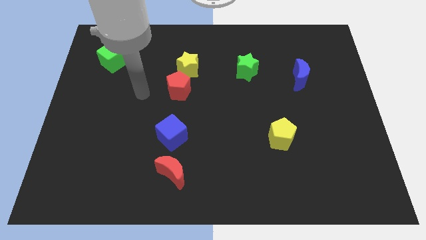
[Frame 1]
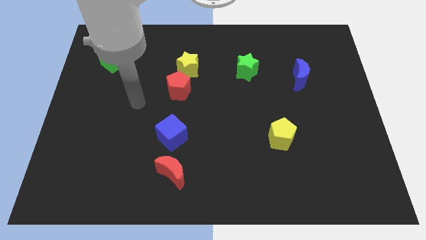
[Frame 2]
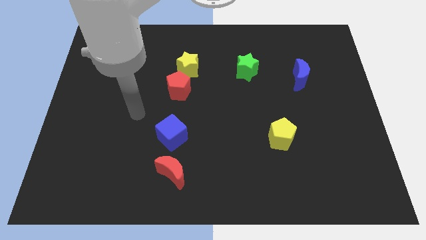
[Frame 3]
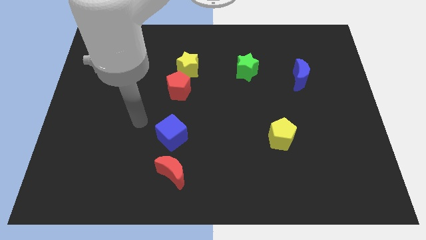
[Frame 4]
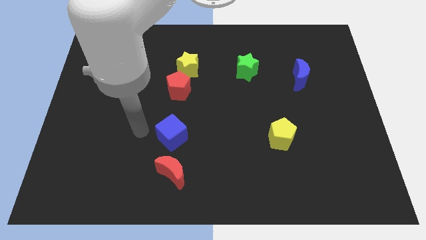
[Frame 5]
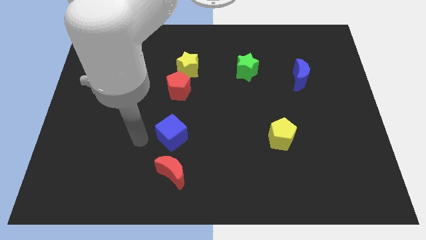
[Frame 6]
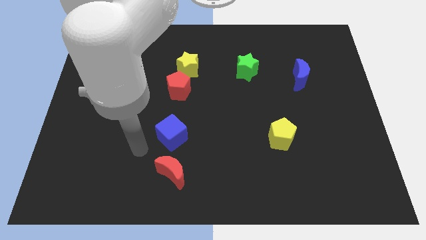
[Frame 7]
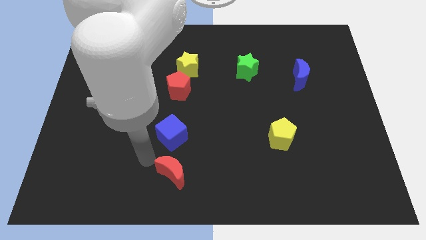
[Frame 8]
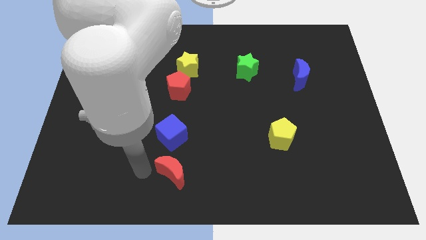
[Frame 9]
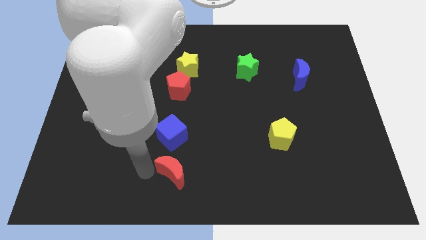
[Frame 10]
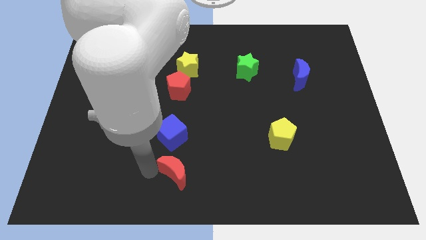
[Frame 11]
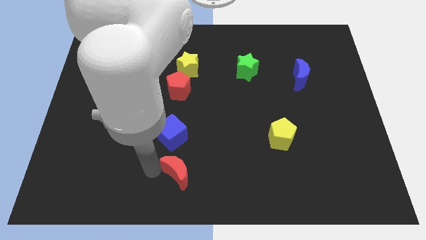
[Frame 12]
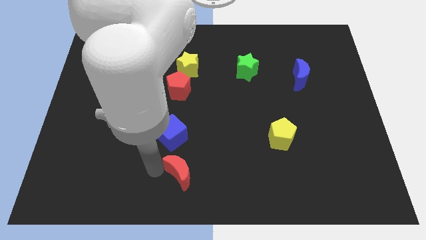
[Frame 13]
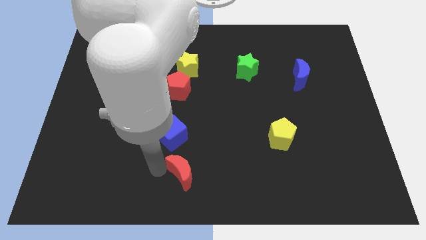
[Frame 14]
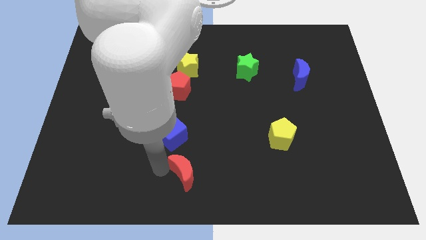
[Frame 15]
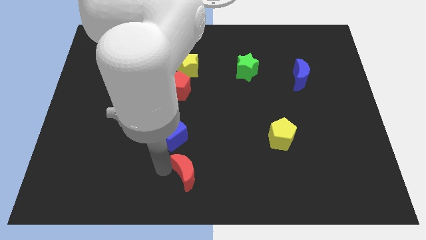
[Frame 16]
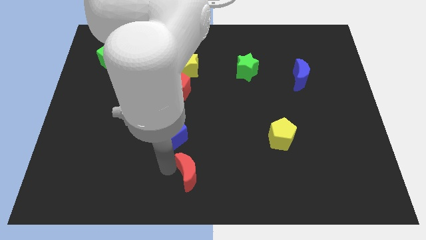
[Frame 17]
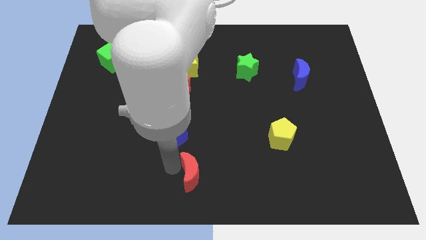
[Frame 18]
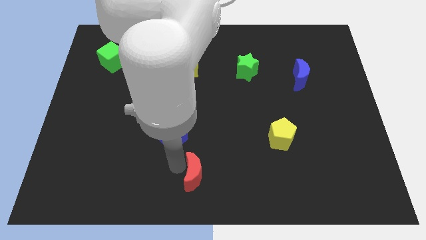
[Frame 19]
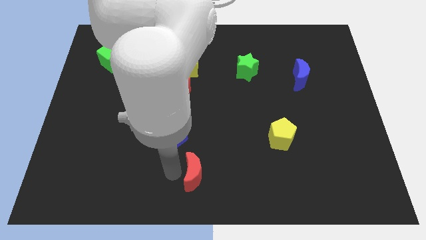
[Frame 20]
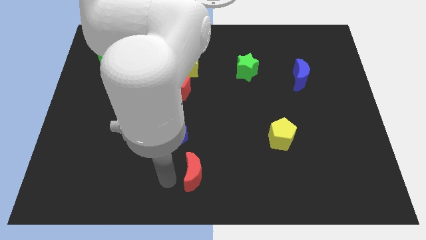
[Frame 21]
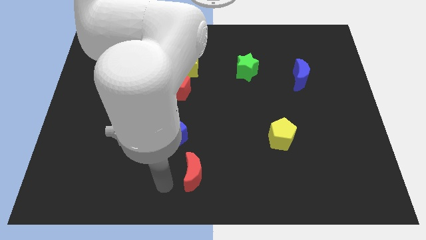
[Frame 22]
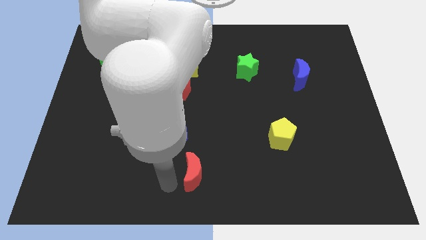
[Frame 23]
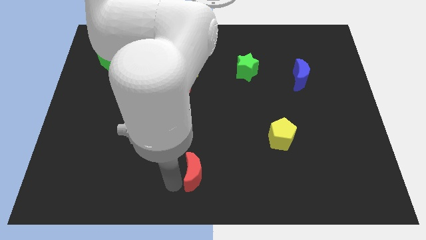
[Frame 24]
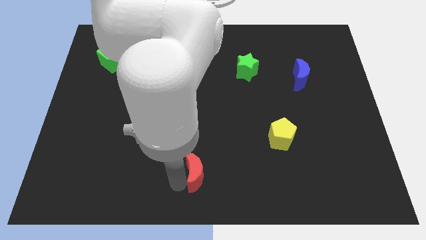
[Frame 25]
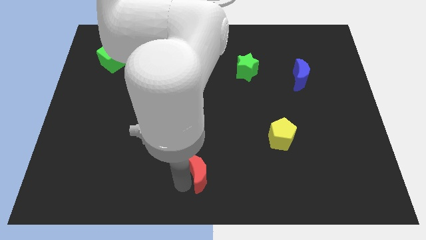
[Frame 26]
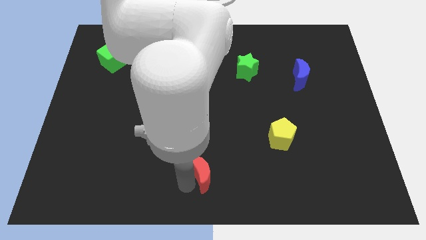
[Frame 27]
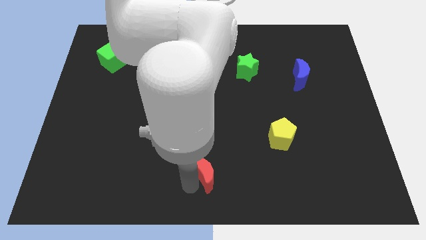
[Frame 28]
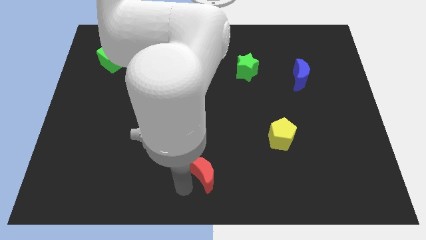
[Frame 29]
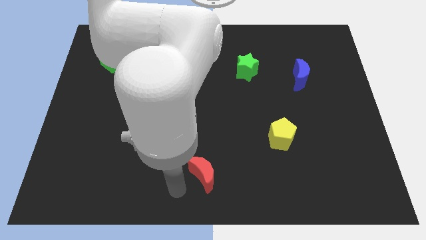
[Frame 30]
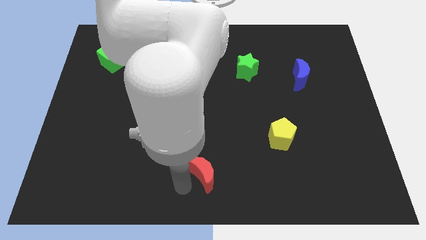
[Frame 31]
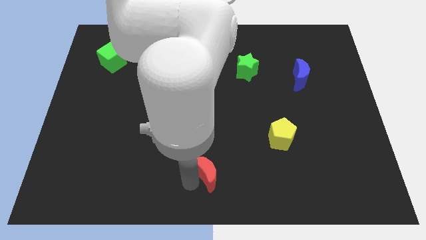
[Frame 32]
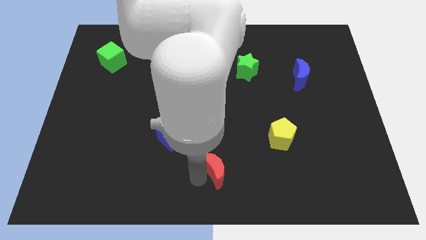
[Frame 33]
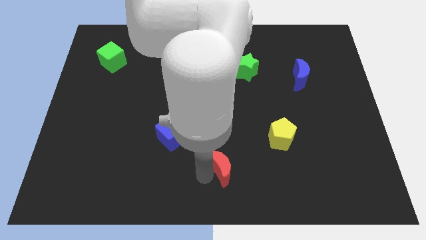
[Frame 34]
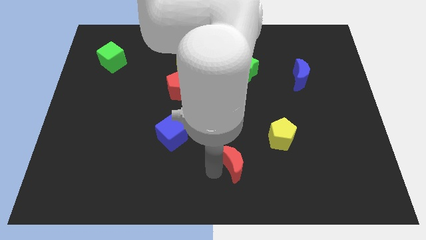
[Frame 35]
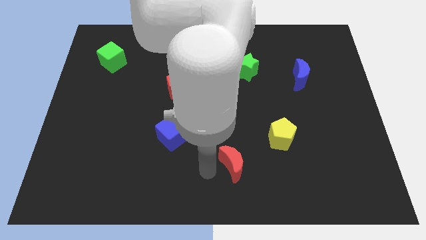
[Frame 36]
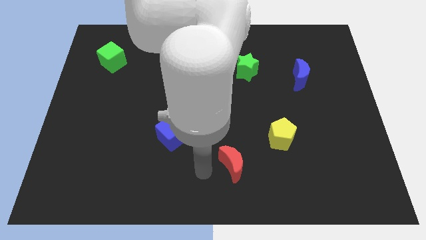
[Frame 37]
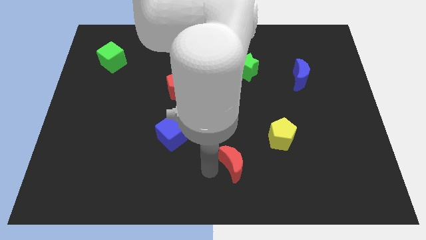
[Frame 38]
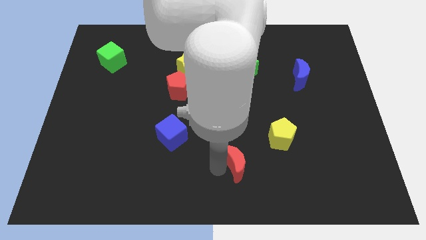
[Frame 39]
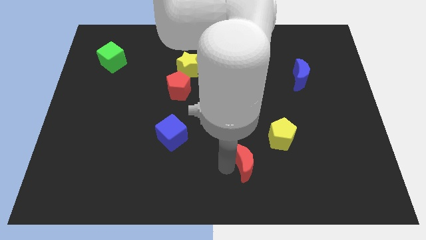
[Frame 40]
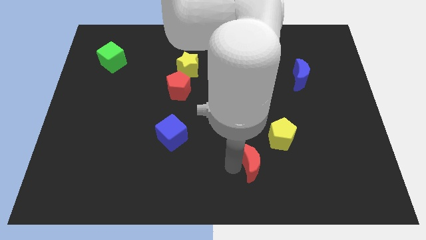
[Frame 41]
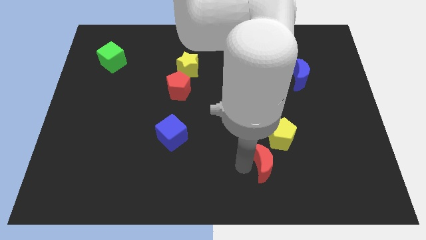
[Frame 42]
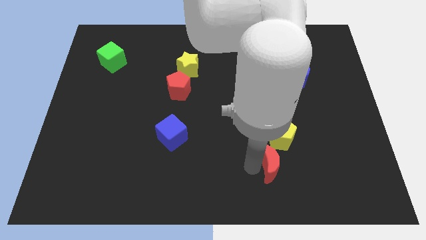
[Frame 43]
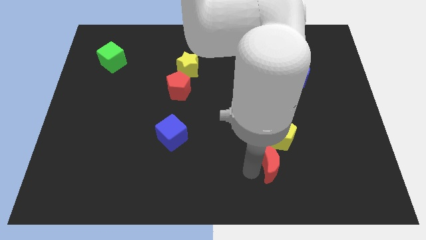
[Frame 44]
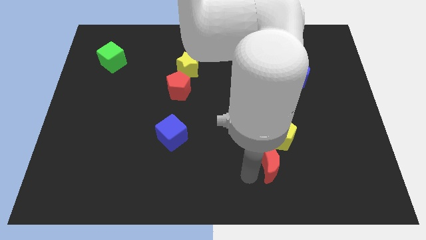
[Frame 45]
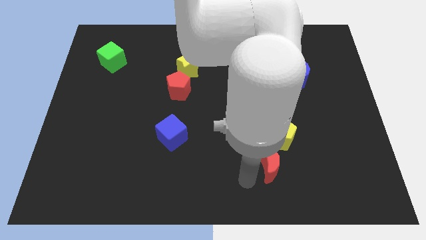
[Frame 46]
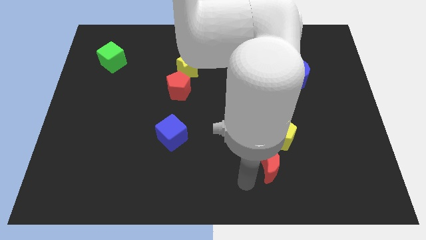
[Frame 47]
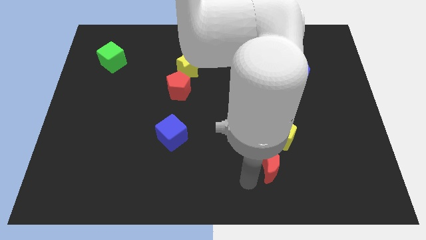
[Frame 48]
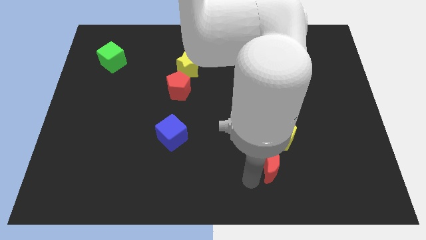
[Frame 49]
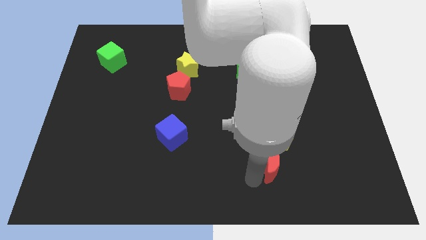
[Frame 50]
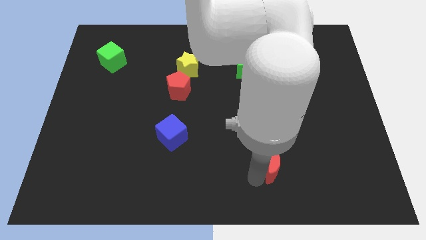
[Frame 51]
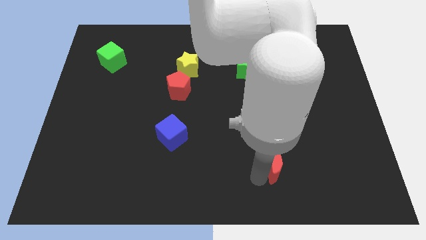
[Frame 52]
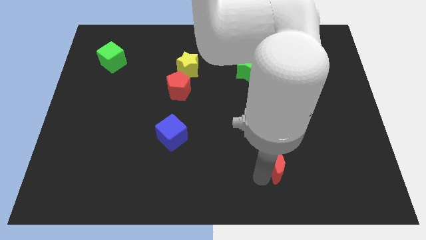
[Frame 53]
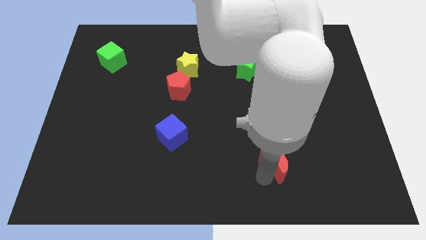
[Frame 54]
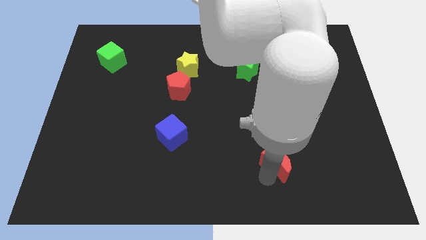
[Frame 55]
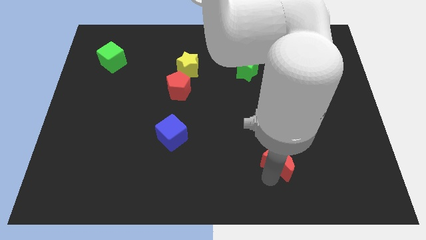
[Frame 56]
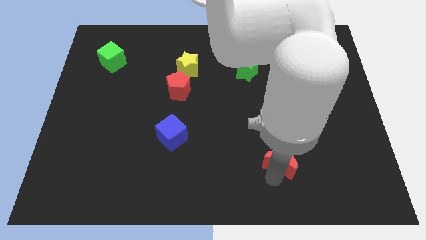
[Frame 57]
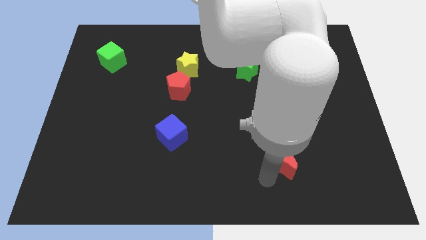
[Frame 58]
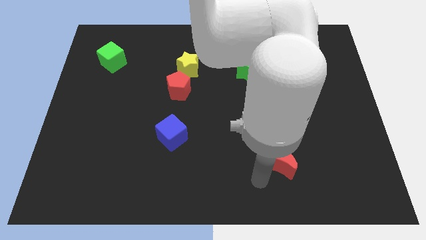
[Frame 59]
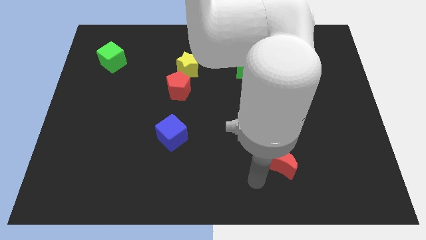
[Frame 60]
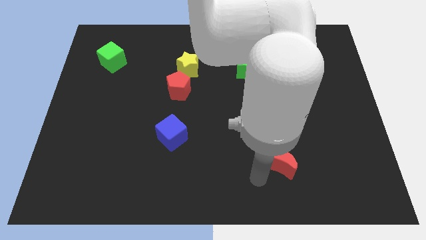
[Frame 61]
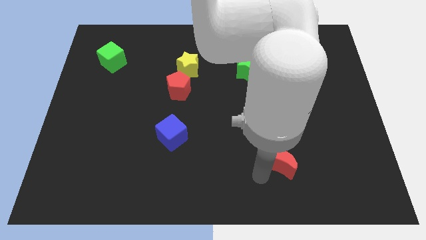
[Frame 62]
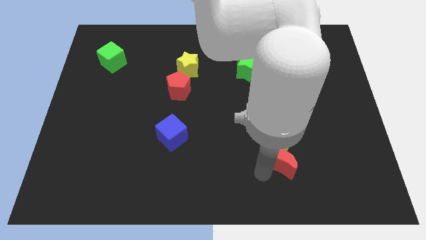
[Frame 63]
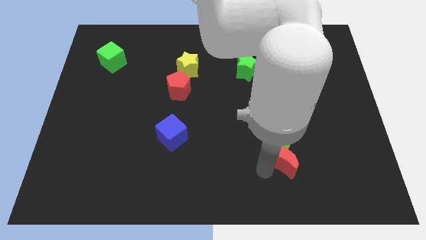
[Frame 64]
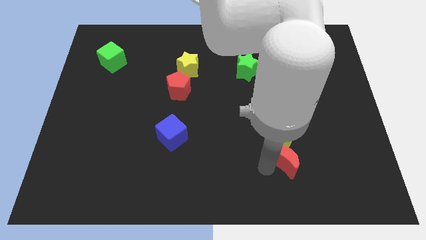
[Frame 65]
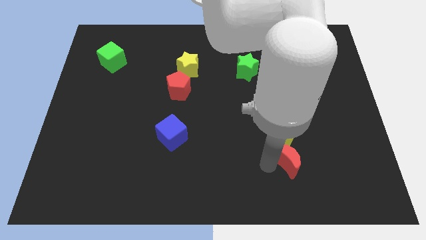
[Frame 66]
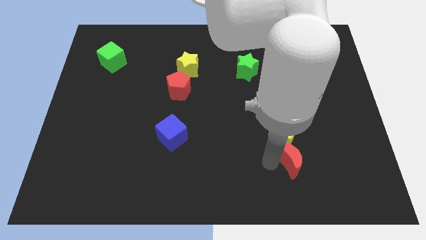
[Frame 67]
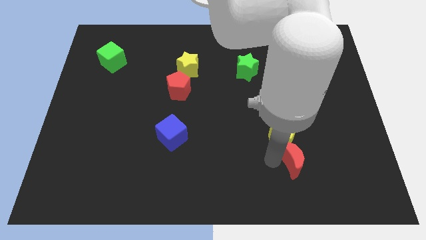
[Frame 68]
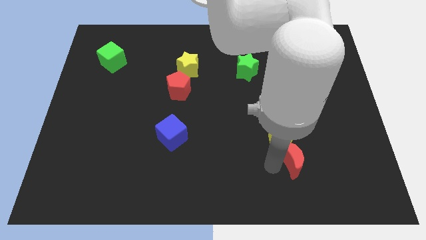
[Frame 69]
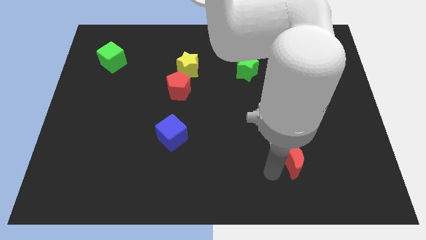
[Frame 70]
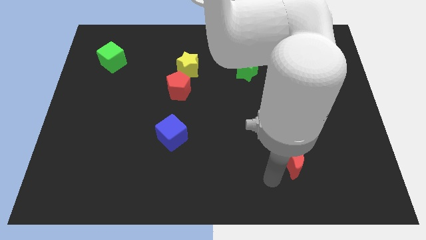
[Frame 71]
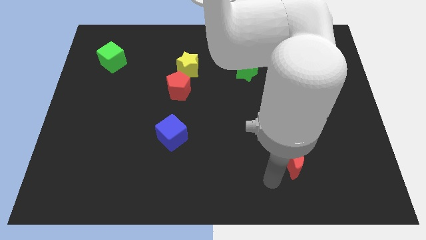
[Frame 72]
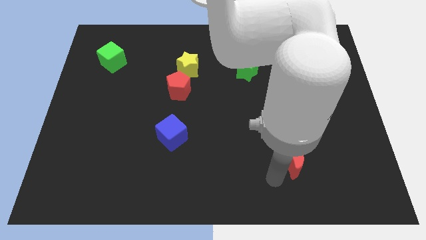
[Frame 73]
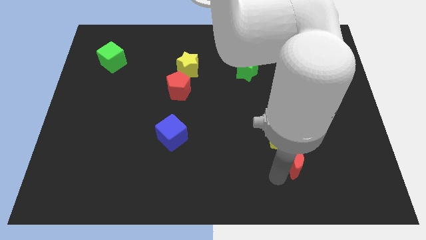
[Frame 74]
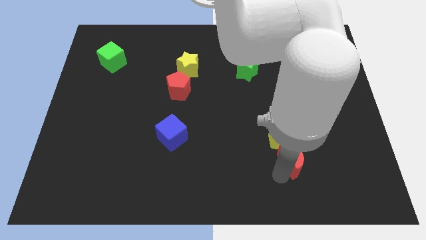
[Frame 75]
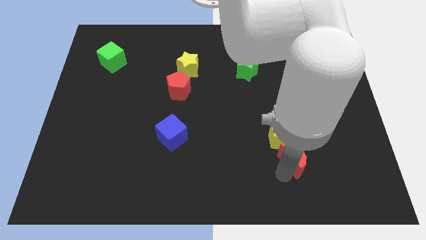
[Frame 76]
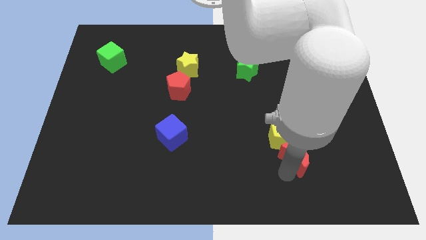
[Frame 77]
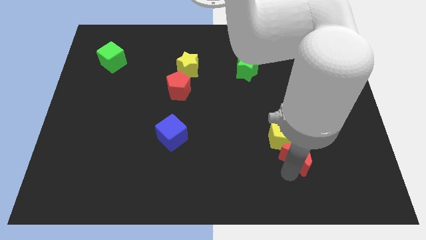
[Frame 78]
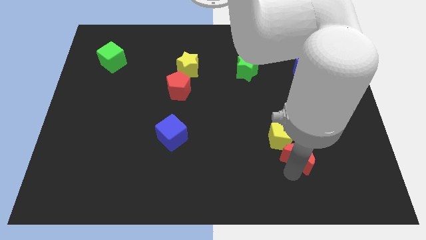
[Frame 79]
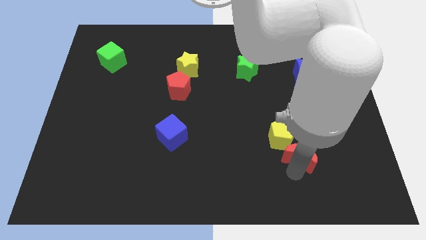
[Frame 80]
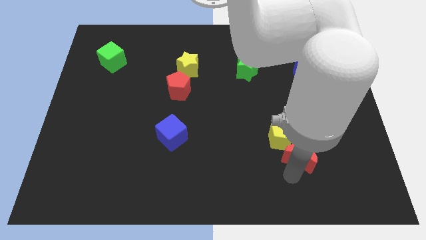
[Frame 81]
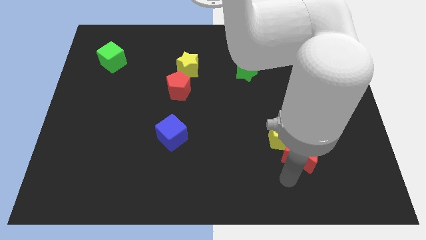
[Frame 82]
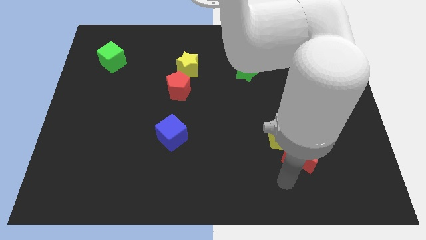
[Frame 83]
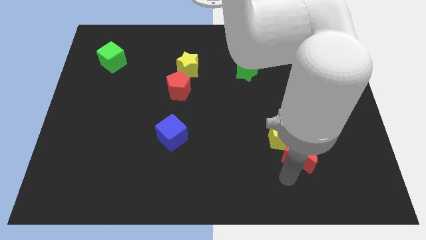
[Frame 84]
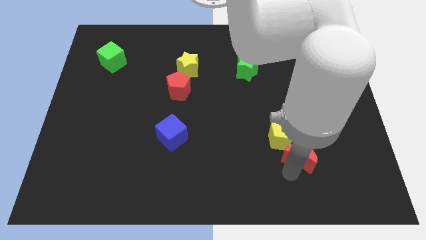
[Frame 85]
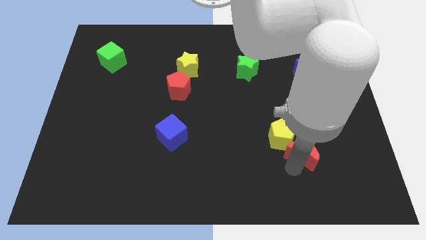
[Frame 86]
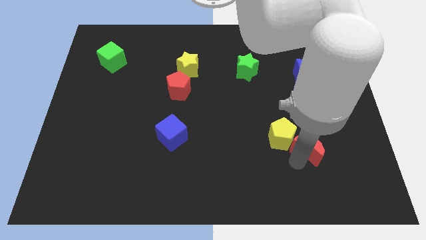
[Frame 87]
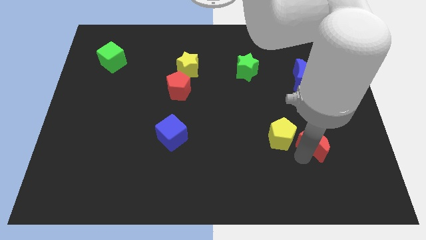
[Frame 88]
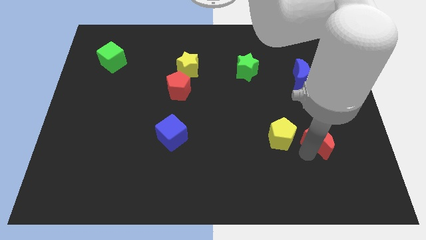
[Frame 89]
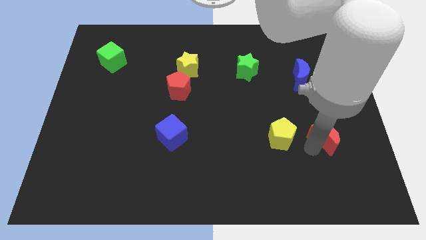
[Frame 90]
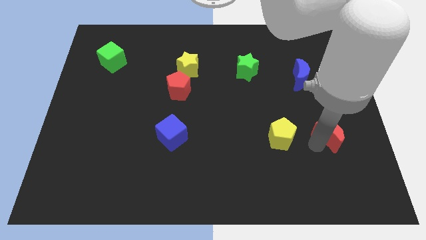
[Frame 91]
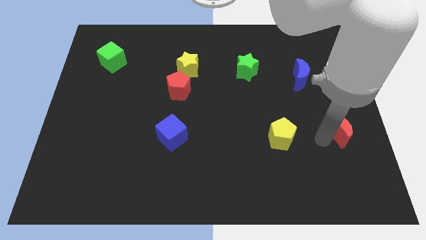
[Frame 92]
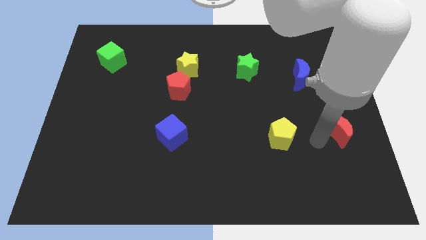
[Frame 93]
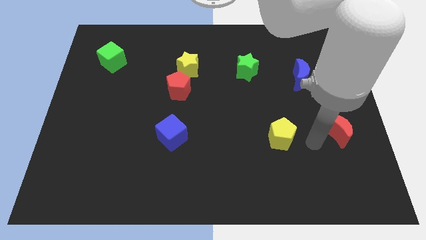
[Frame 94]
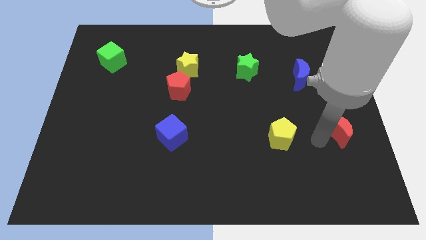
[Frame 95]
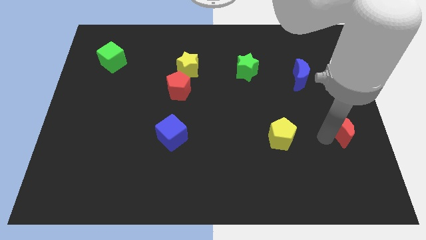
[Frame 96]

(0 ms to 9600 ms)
push the red moon to the right side
